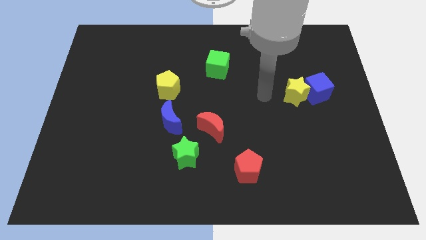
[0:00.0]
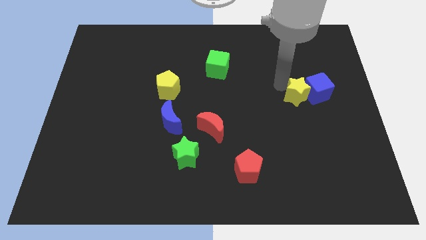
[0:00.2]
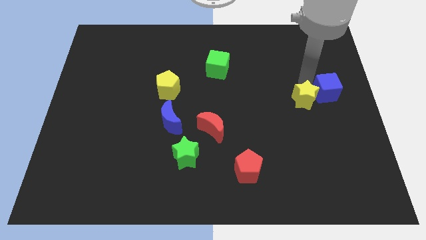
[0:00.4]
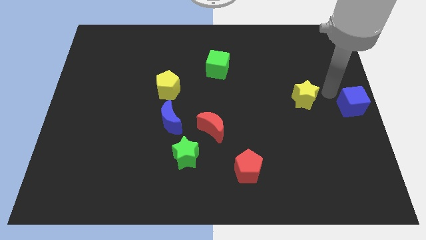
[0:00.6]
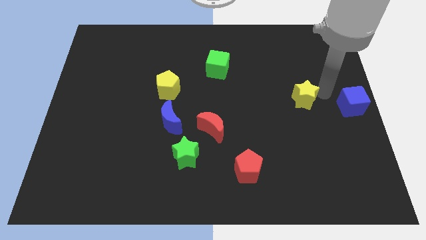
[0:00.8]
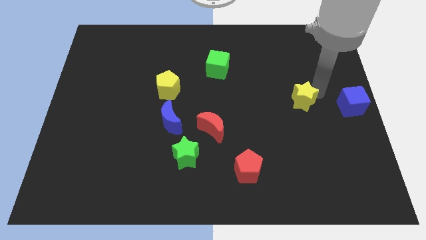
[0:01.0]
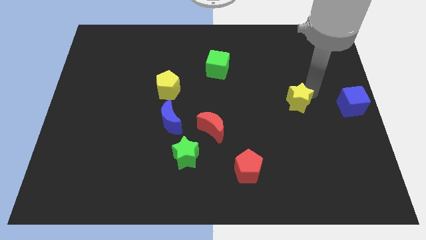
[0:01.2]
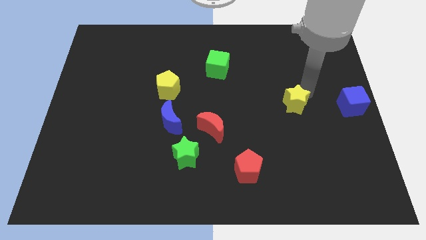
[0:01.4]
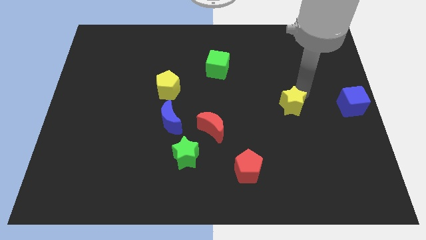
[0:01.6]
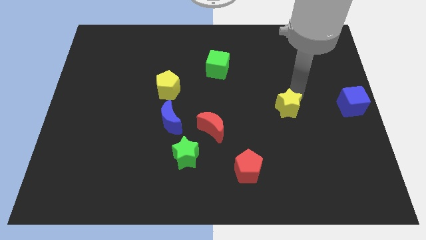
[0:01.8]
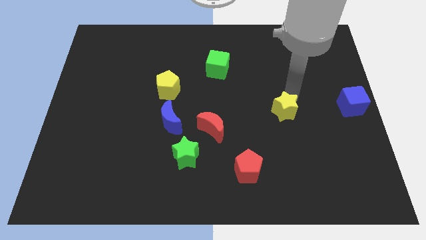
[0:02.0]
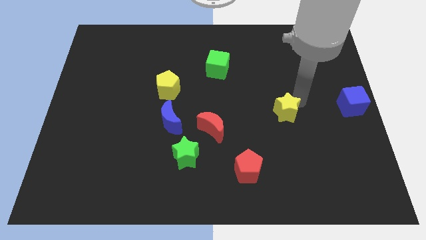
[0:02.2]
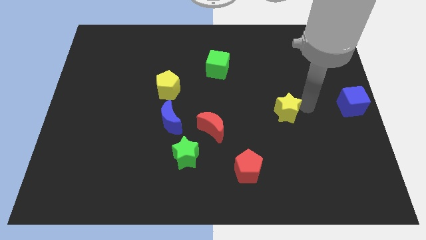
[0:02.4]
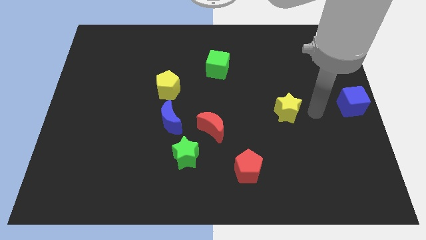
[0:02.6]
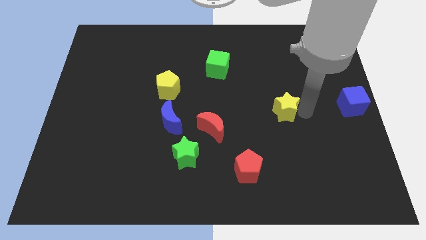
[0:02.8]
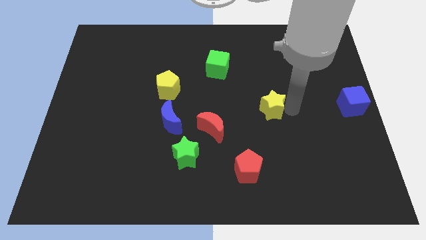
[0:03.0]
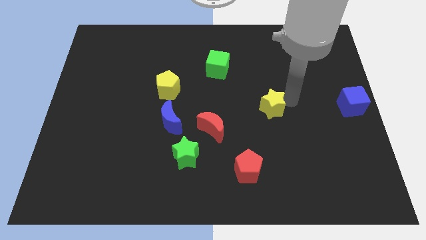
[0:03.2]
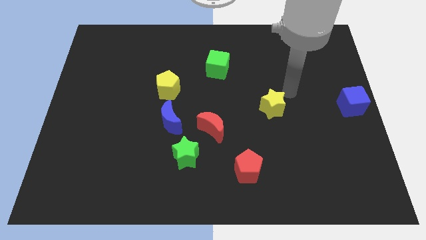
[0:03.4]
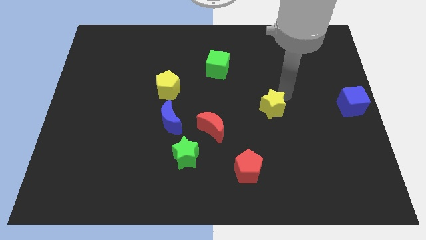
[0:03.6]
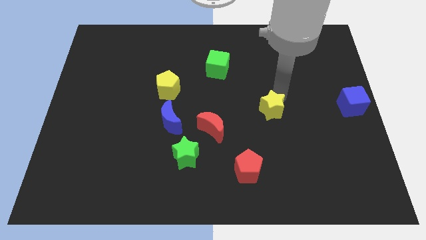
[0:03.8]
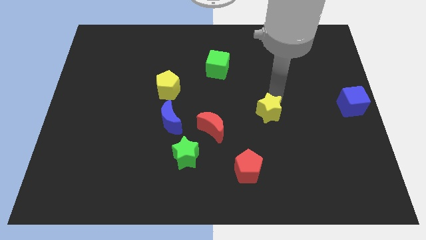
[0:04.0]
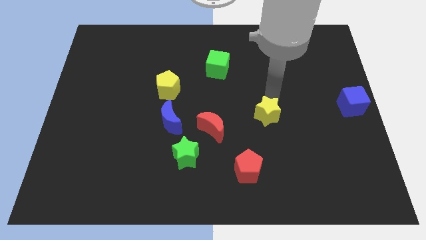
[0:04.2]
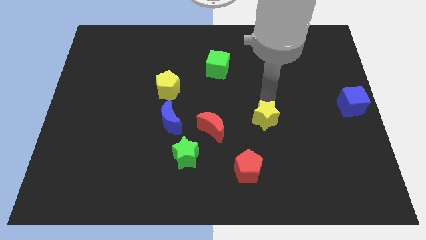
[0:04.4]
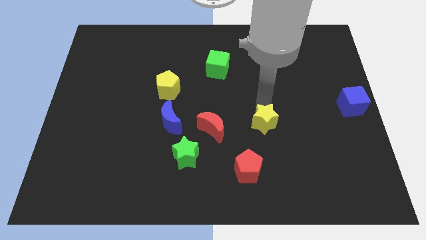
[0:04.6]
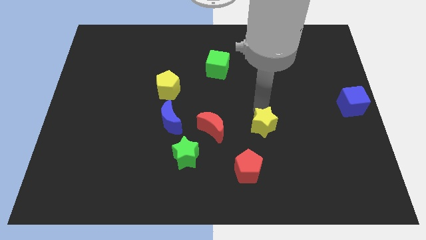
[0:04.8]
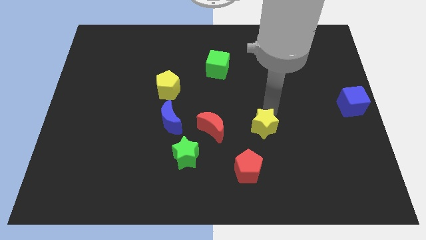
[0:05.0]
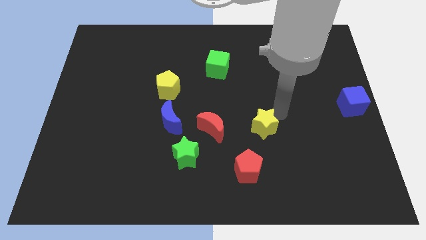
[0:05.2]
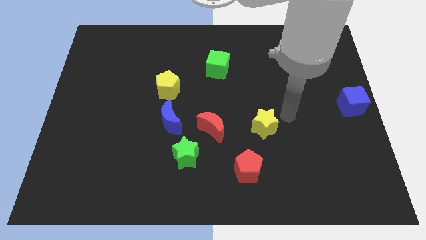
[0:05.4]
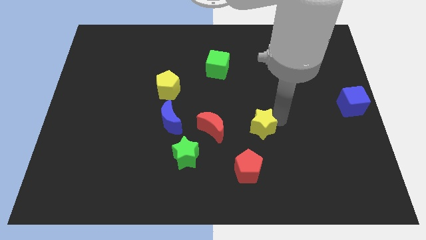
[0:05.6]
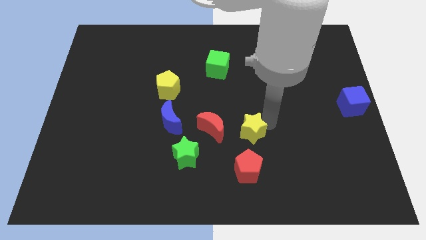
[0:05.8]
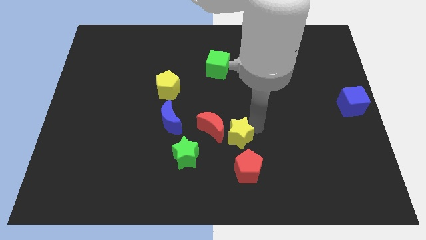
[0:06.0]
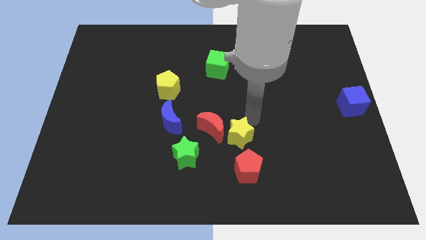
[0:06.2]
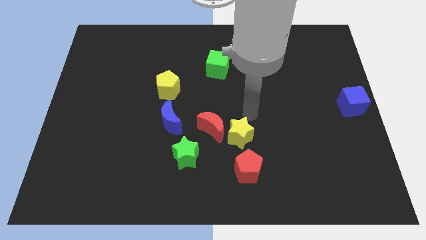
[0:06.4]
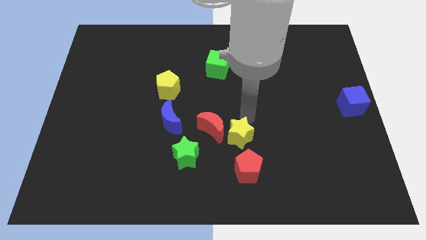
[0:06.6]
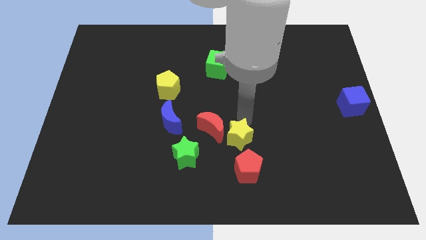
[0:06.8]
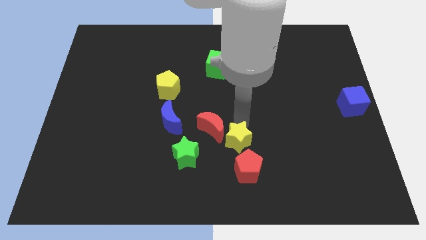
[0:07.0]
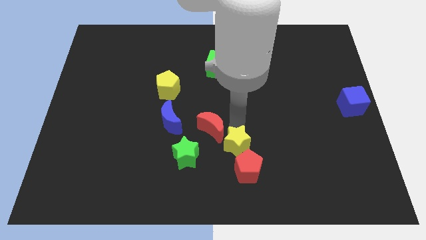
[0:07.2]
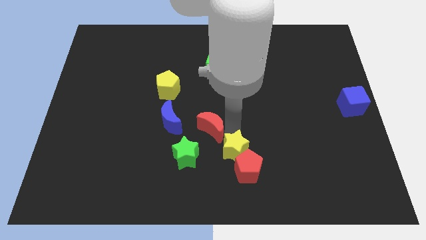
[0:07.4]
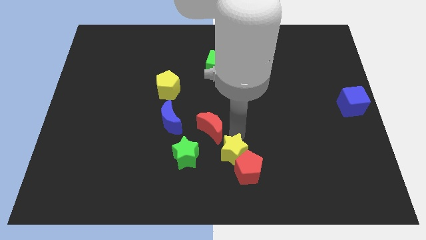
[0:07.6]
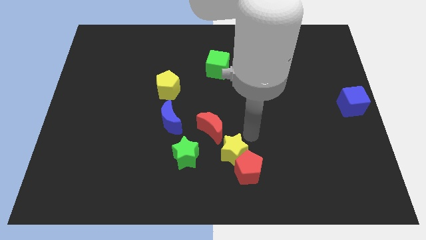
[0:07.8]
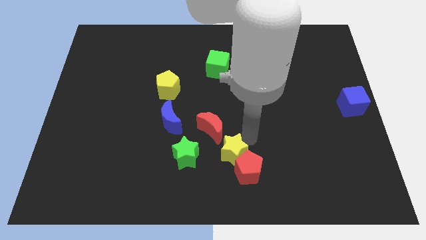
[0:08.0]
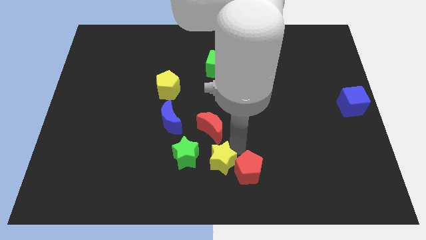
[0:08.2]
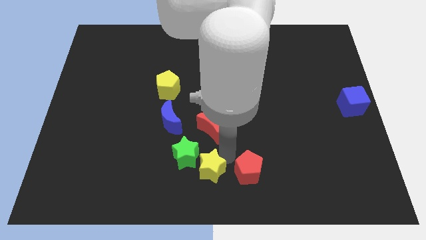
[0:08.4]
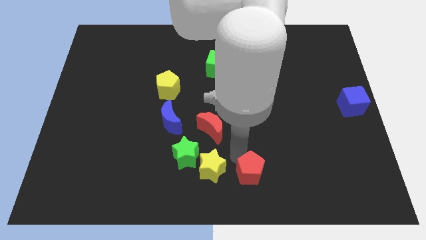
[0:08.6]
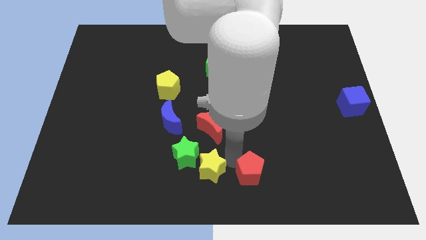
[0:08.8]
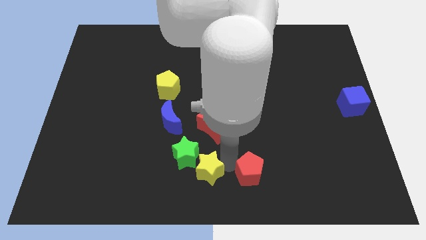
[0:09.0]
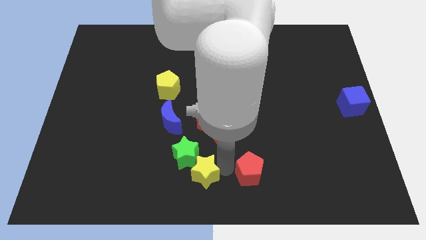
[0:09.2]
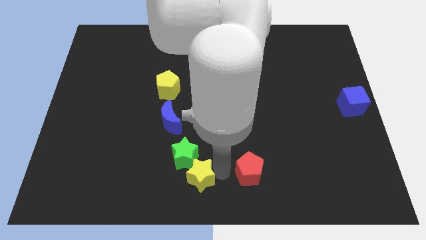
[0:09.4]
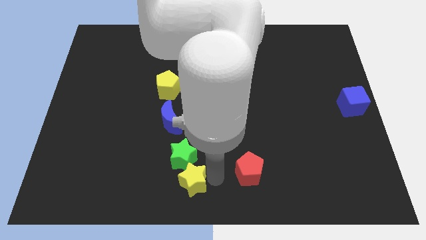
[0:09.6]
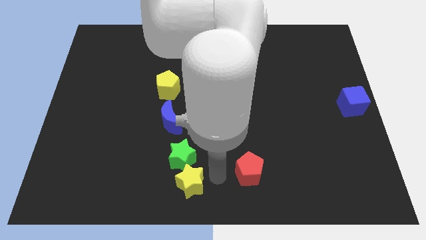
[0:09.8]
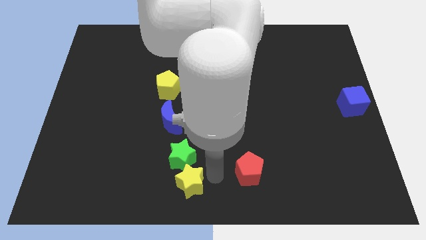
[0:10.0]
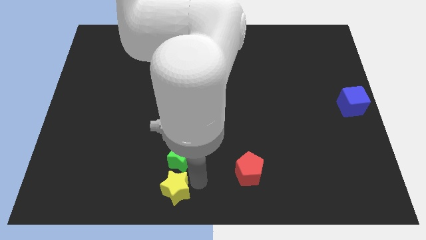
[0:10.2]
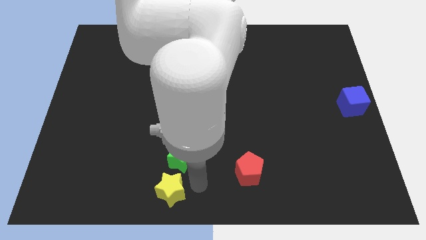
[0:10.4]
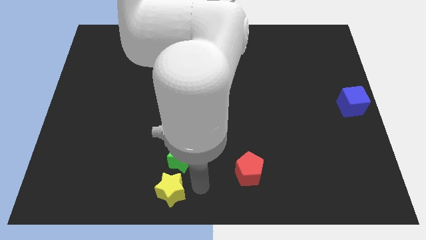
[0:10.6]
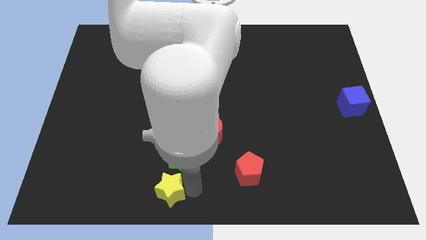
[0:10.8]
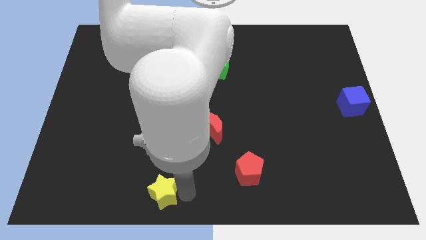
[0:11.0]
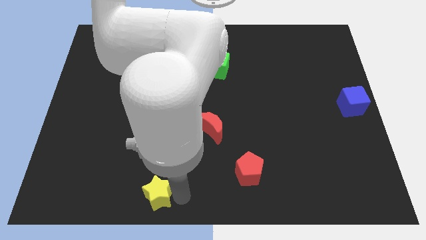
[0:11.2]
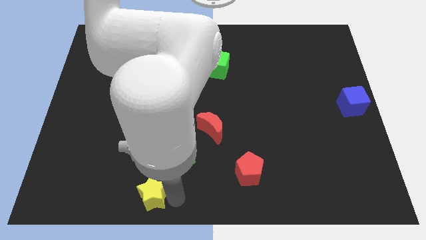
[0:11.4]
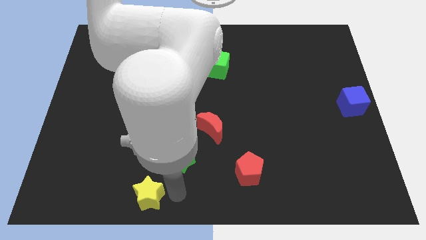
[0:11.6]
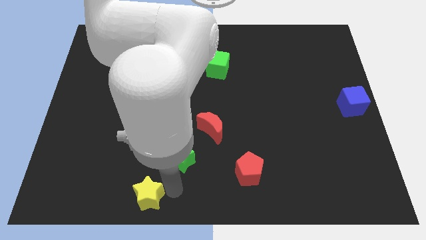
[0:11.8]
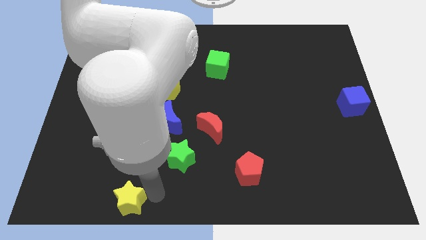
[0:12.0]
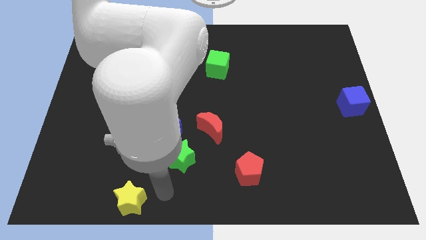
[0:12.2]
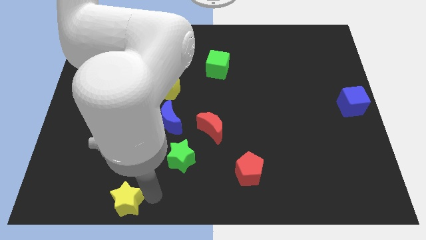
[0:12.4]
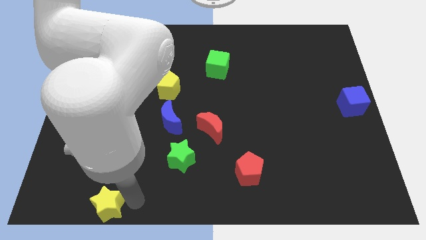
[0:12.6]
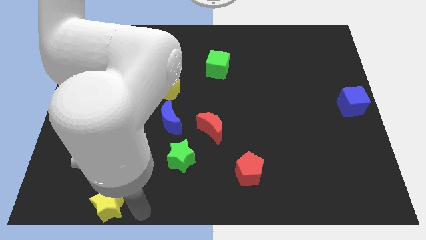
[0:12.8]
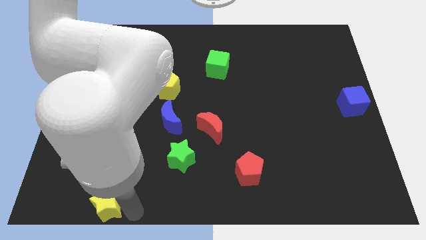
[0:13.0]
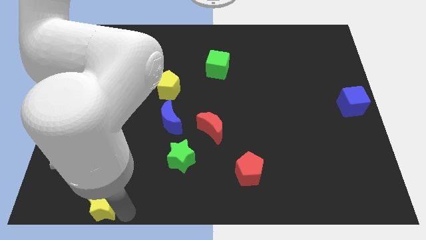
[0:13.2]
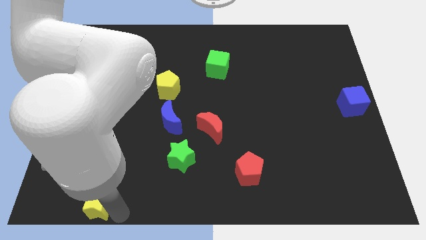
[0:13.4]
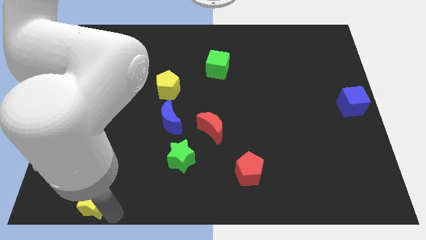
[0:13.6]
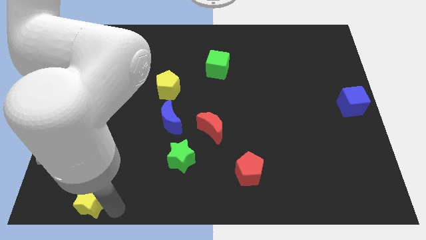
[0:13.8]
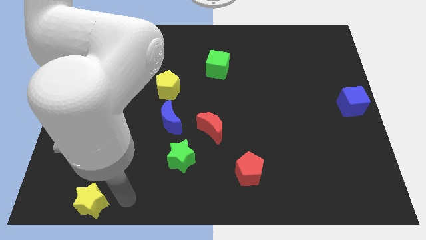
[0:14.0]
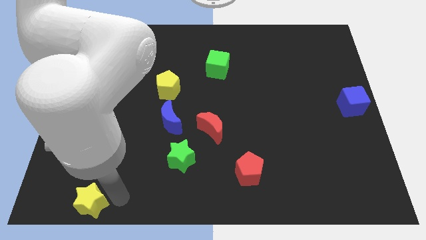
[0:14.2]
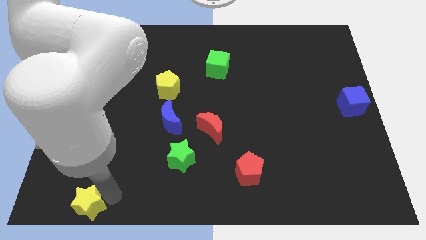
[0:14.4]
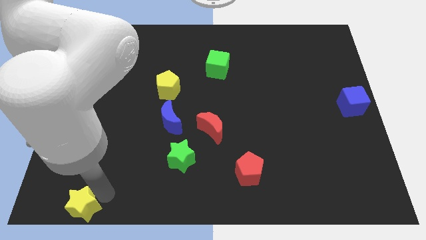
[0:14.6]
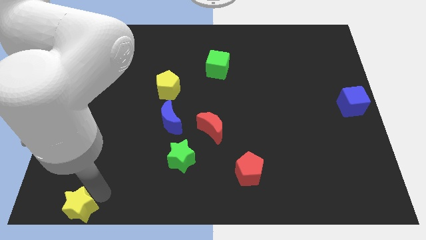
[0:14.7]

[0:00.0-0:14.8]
slide the yellow star to the lower left corner
